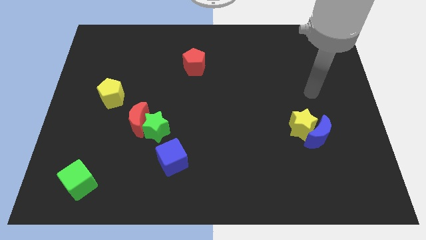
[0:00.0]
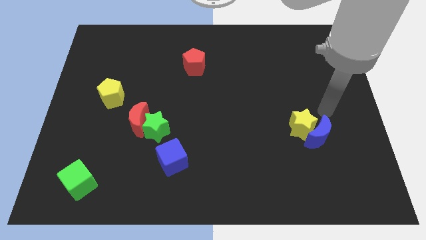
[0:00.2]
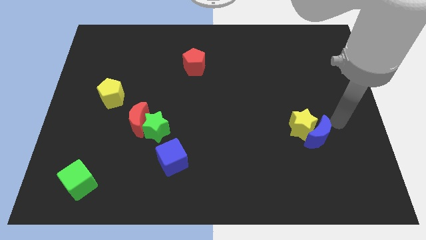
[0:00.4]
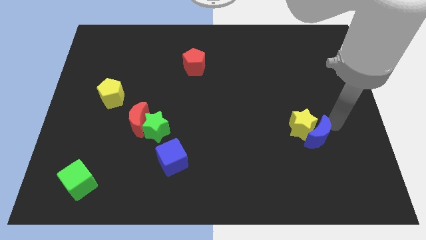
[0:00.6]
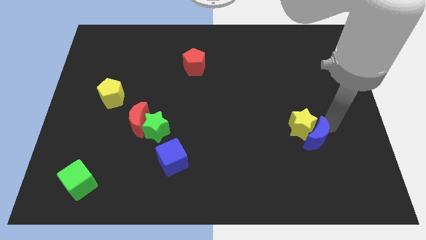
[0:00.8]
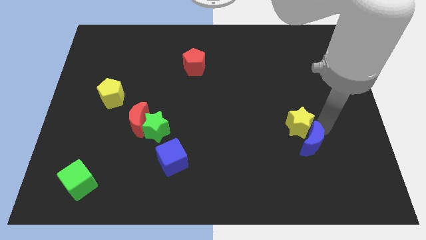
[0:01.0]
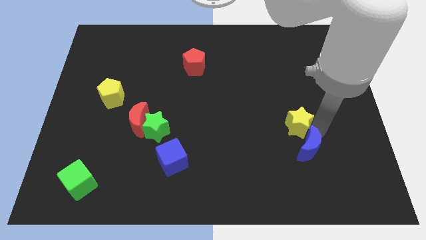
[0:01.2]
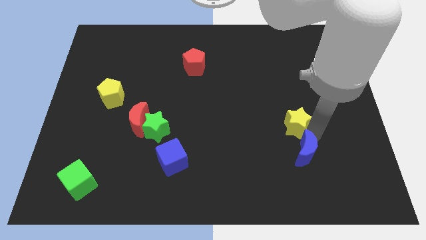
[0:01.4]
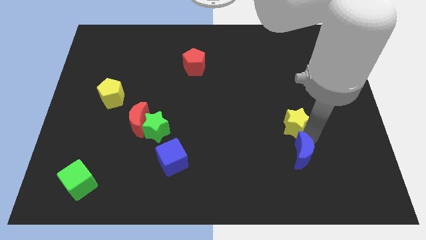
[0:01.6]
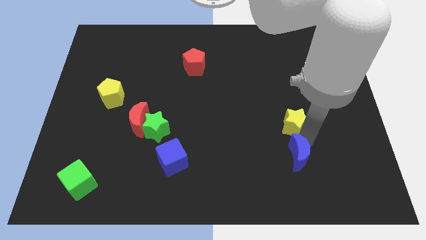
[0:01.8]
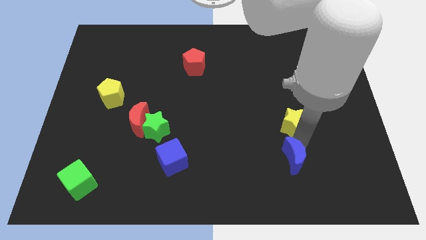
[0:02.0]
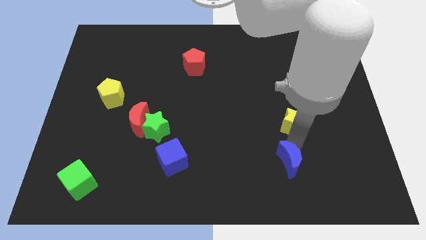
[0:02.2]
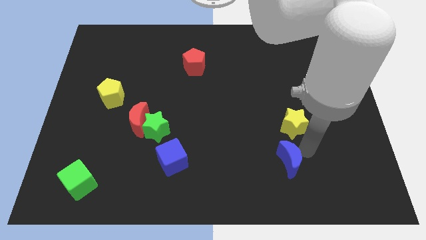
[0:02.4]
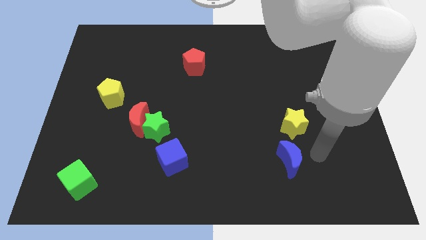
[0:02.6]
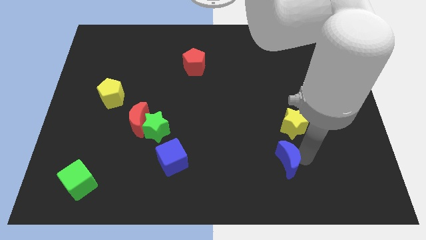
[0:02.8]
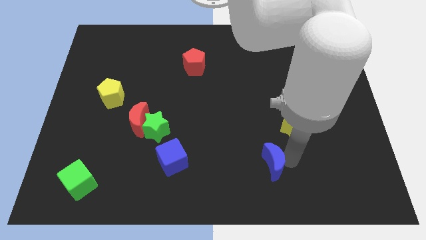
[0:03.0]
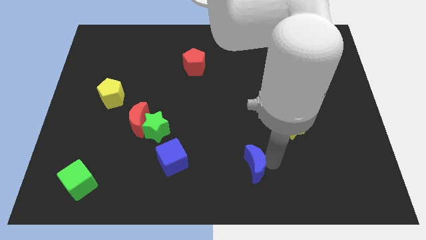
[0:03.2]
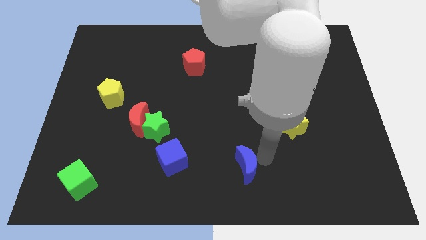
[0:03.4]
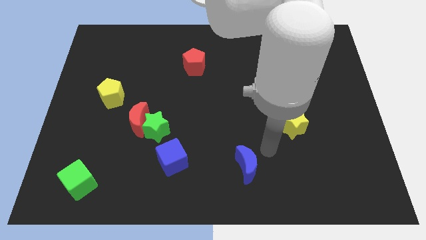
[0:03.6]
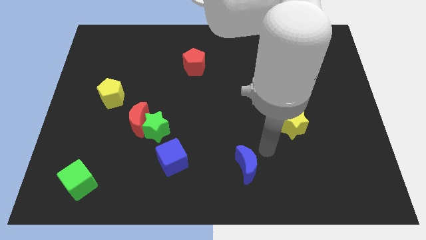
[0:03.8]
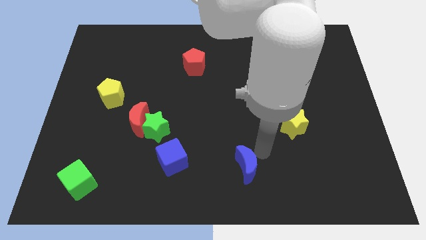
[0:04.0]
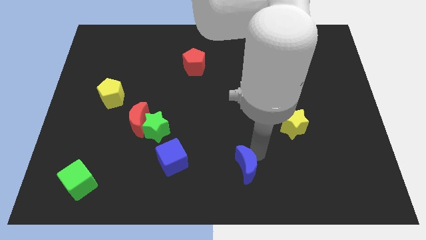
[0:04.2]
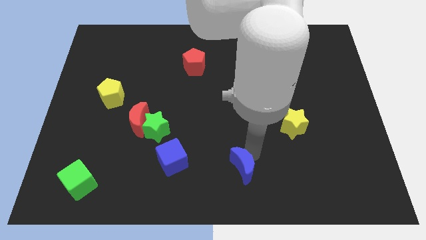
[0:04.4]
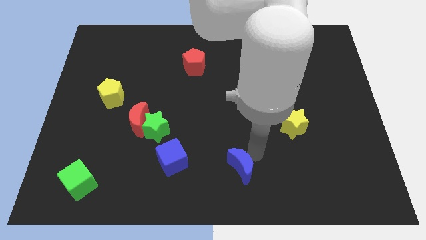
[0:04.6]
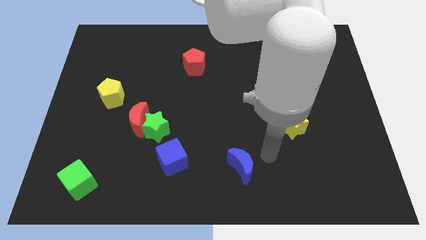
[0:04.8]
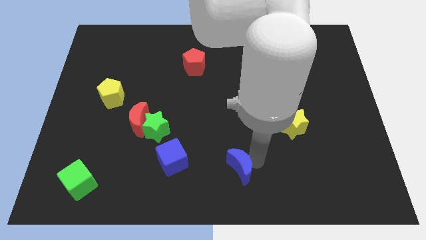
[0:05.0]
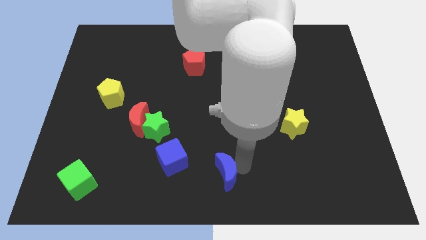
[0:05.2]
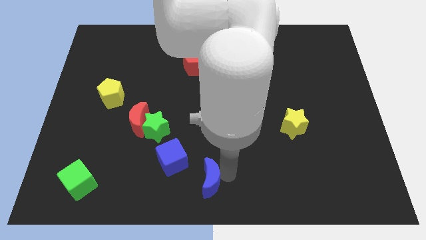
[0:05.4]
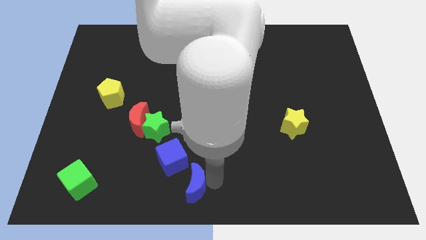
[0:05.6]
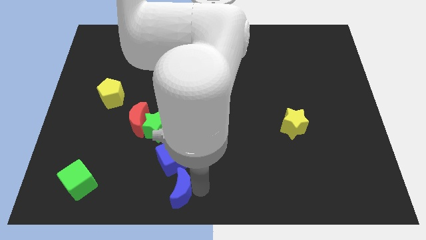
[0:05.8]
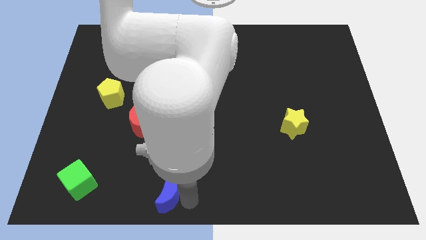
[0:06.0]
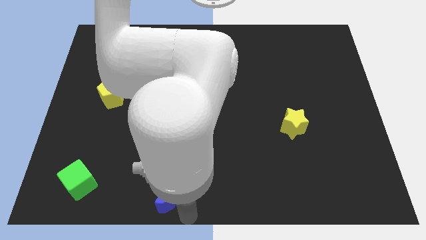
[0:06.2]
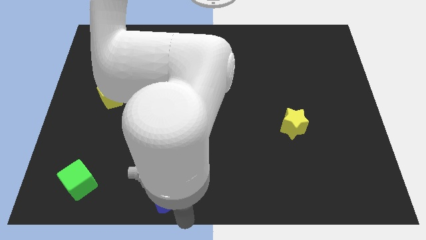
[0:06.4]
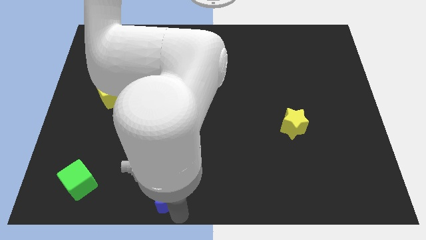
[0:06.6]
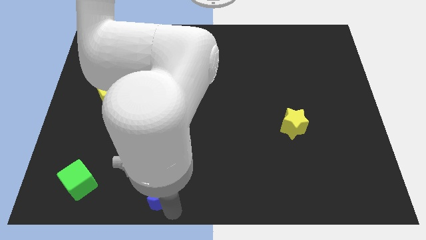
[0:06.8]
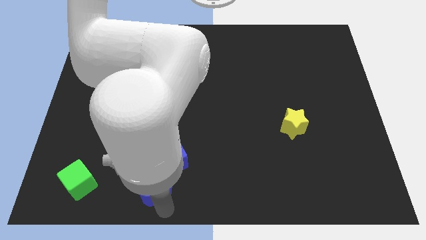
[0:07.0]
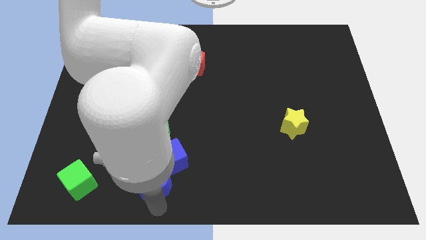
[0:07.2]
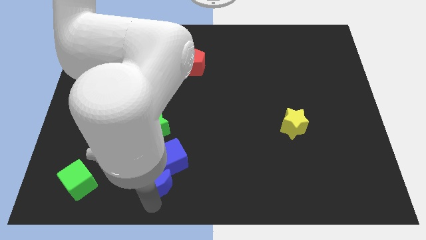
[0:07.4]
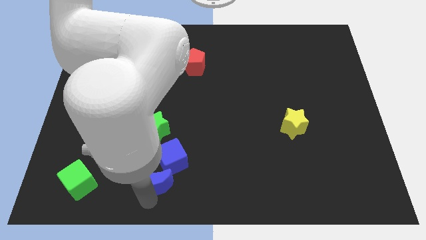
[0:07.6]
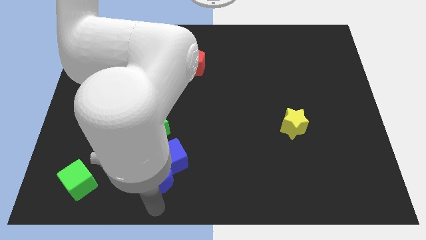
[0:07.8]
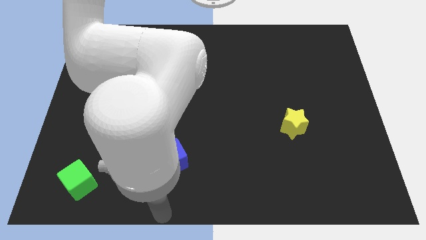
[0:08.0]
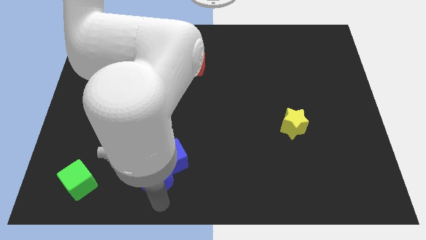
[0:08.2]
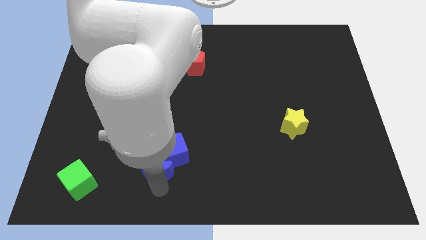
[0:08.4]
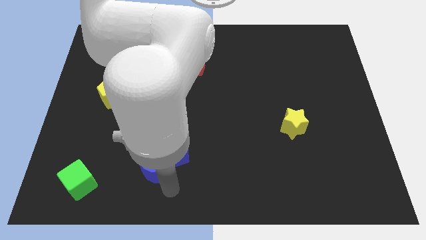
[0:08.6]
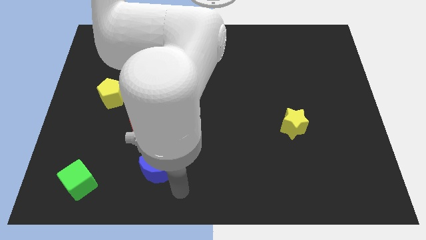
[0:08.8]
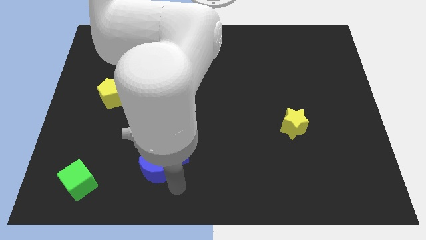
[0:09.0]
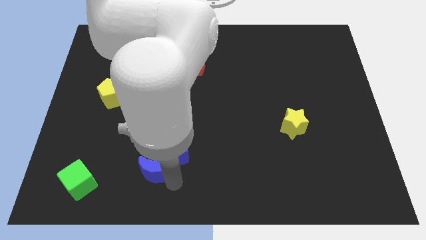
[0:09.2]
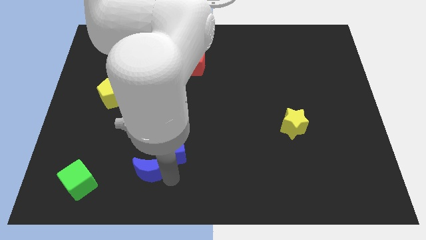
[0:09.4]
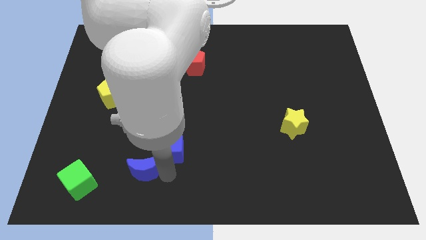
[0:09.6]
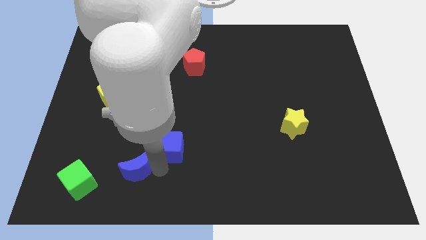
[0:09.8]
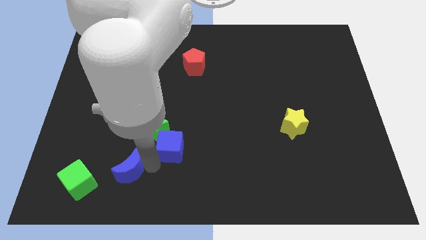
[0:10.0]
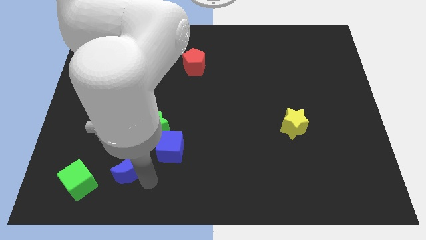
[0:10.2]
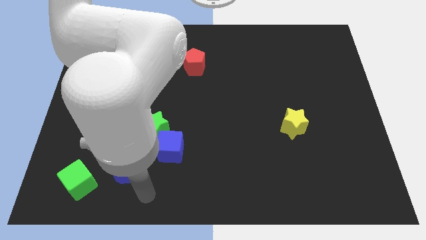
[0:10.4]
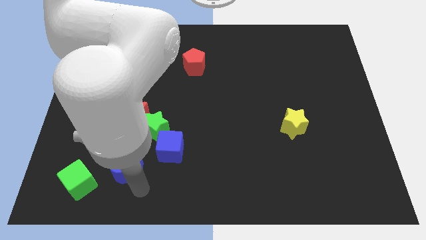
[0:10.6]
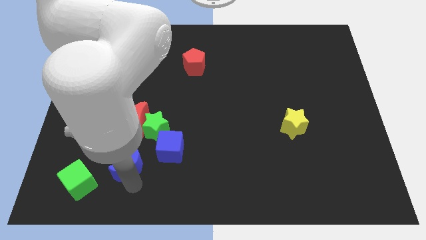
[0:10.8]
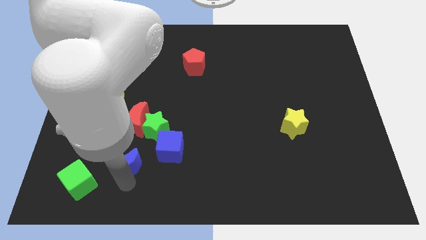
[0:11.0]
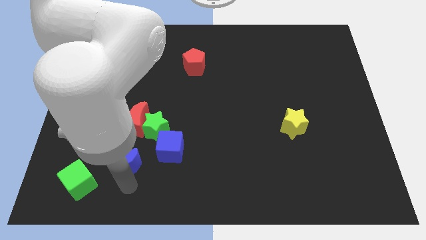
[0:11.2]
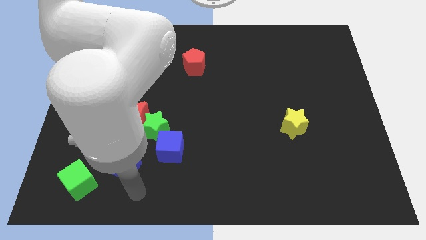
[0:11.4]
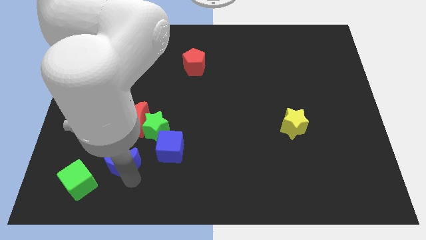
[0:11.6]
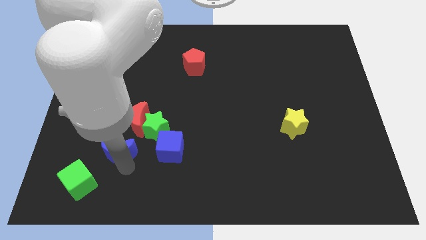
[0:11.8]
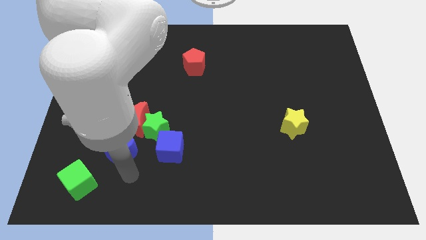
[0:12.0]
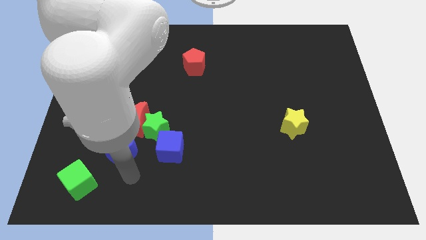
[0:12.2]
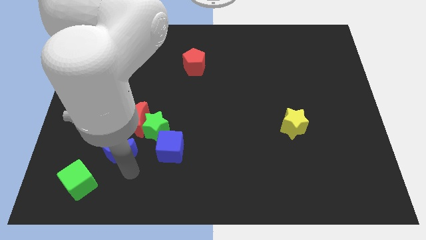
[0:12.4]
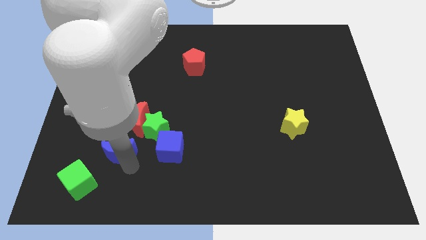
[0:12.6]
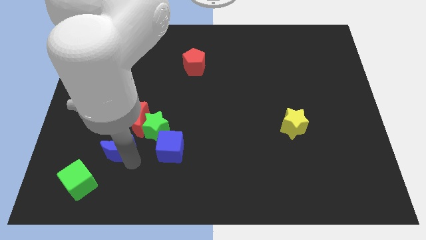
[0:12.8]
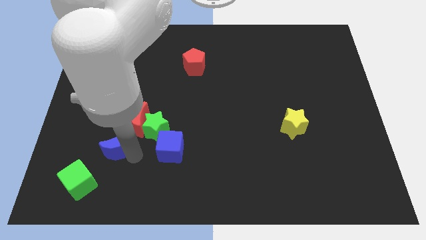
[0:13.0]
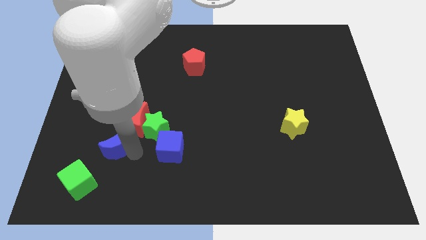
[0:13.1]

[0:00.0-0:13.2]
push the blue moon below the yellow pentagon
